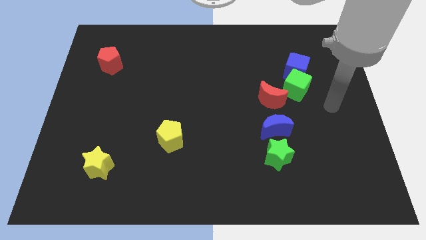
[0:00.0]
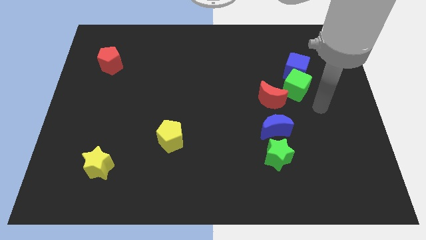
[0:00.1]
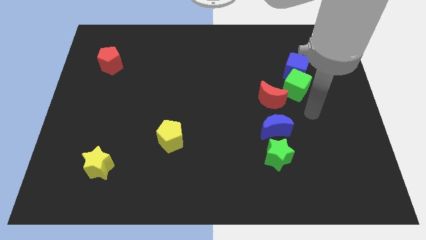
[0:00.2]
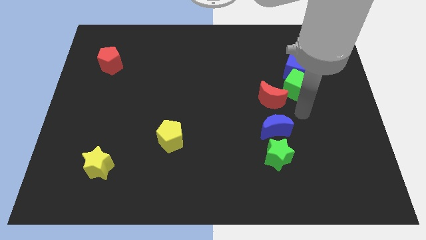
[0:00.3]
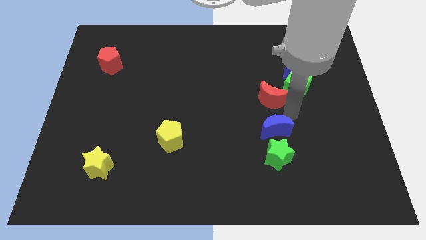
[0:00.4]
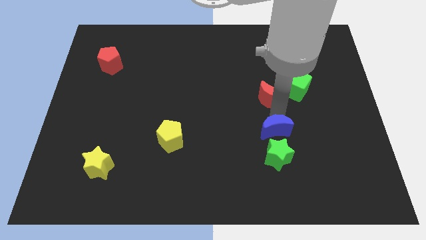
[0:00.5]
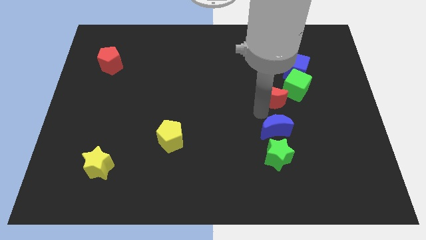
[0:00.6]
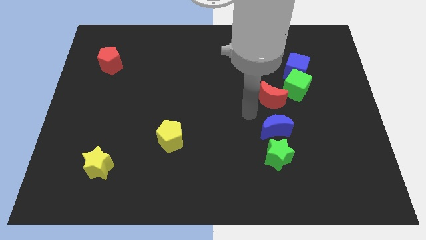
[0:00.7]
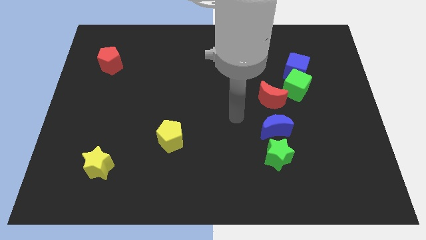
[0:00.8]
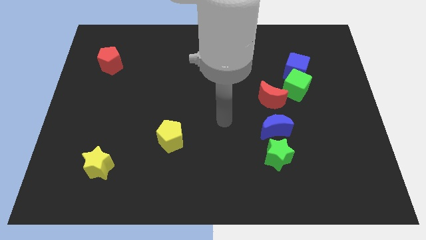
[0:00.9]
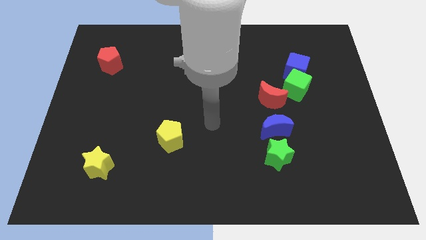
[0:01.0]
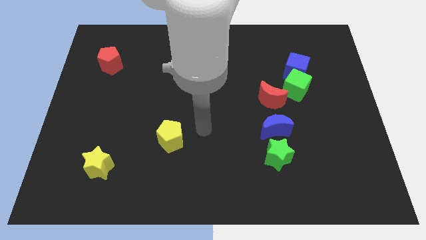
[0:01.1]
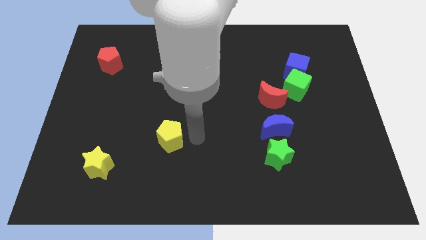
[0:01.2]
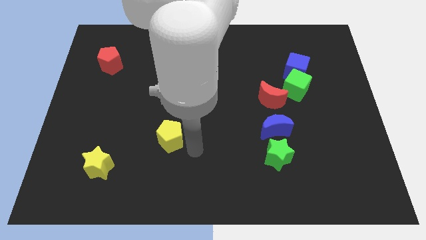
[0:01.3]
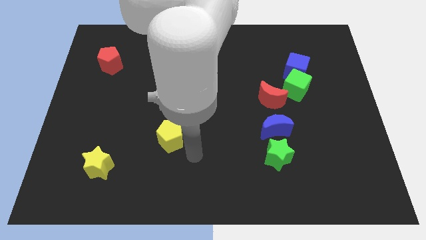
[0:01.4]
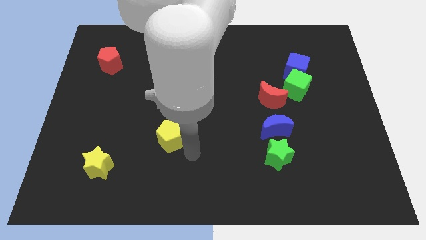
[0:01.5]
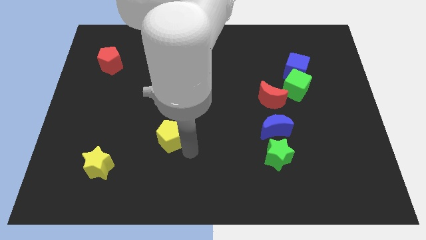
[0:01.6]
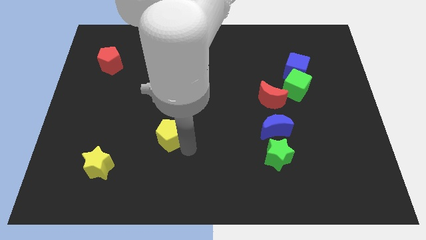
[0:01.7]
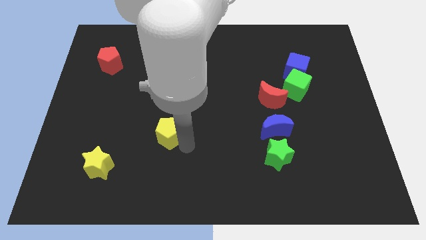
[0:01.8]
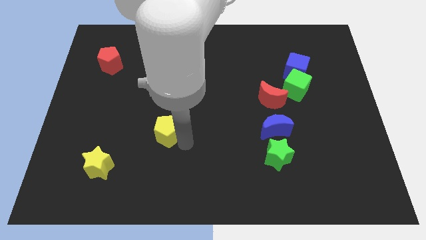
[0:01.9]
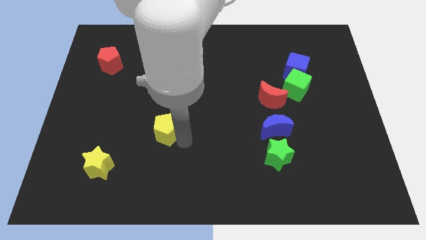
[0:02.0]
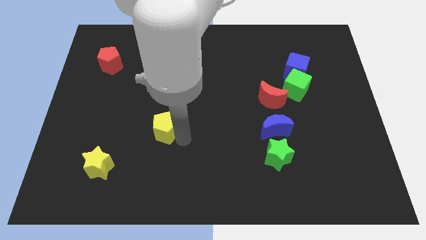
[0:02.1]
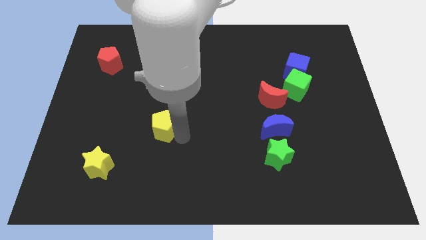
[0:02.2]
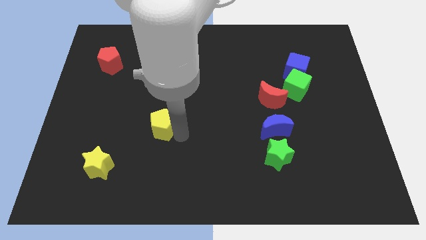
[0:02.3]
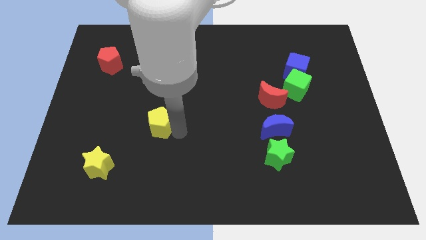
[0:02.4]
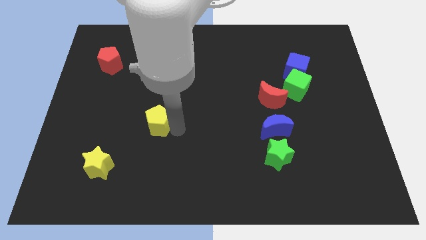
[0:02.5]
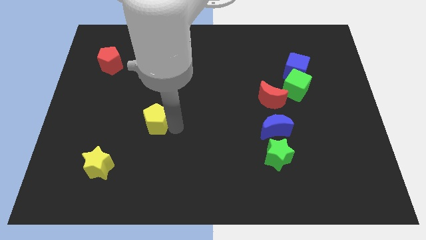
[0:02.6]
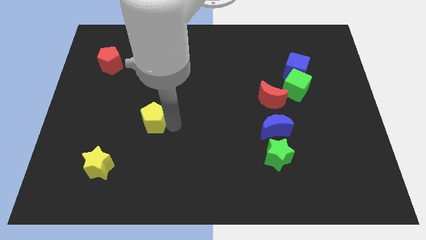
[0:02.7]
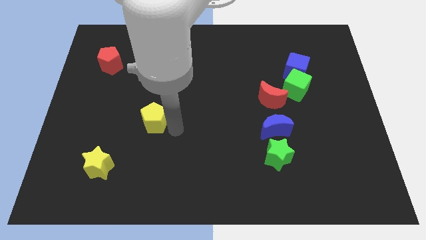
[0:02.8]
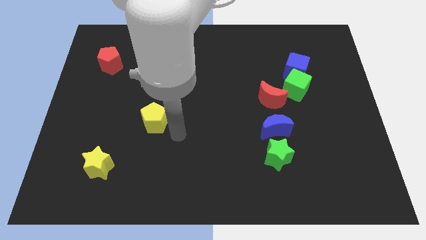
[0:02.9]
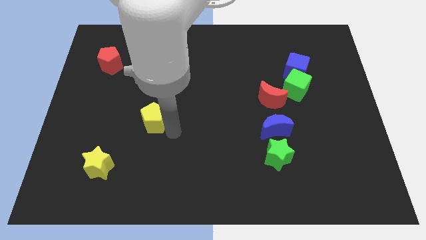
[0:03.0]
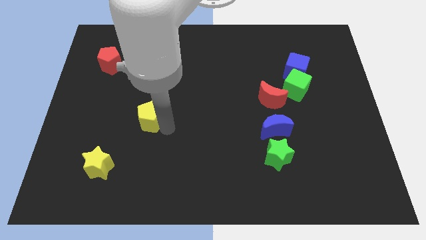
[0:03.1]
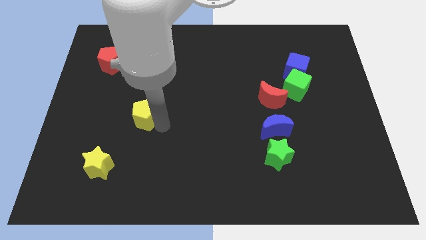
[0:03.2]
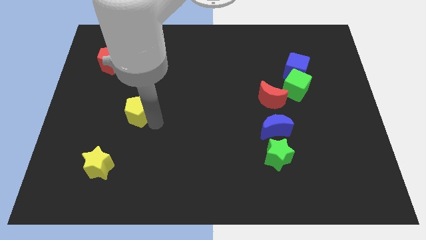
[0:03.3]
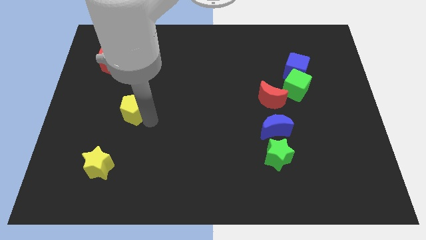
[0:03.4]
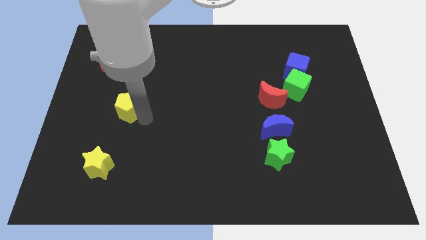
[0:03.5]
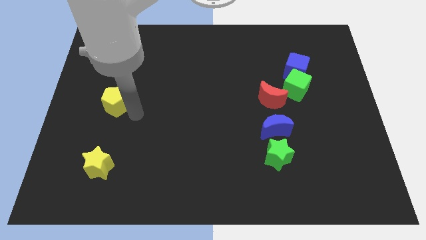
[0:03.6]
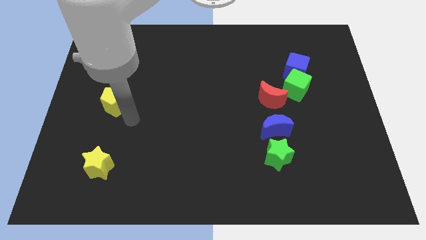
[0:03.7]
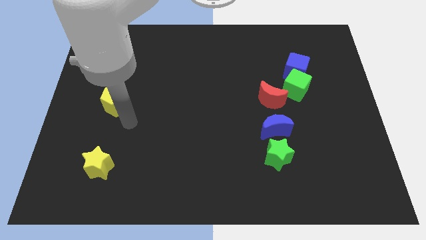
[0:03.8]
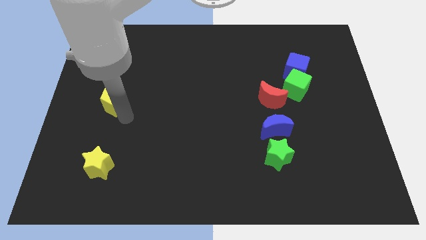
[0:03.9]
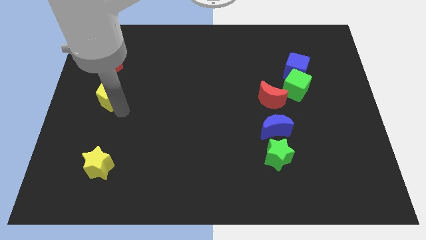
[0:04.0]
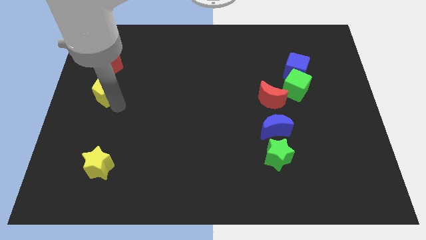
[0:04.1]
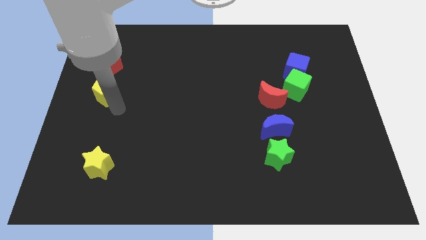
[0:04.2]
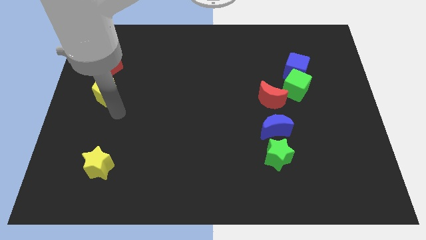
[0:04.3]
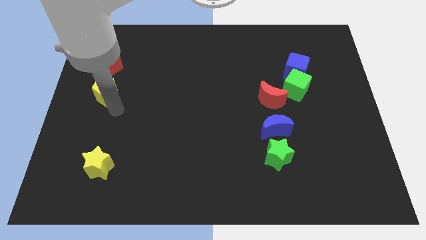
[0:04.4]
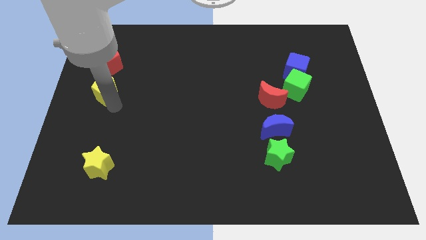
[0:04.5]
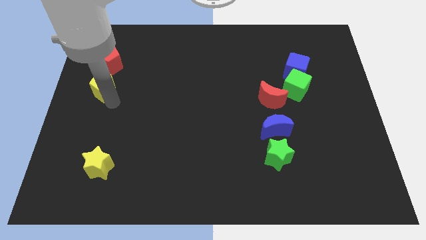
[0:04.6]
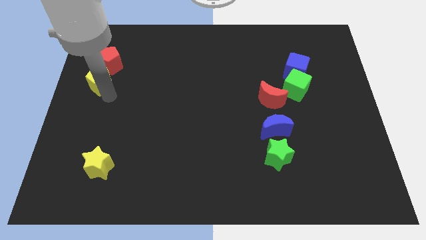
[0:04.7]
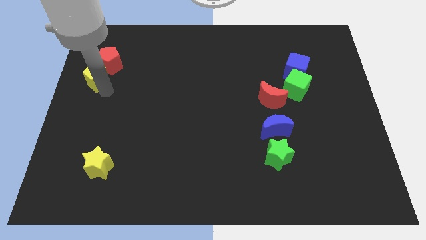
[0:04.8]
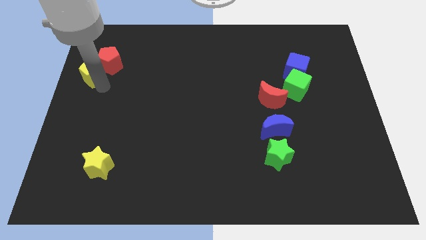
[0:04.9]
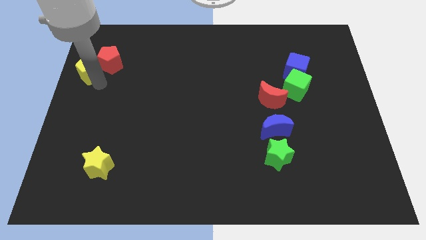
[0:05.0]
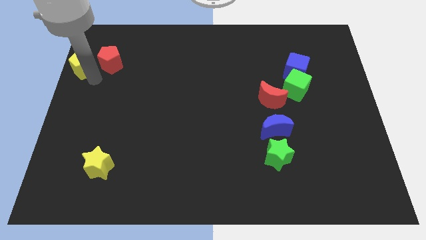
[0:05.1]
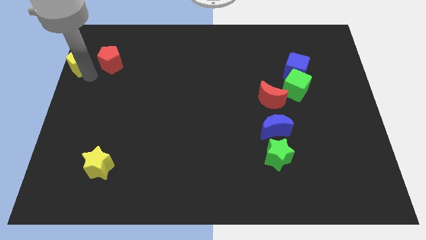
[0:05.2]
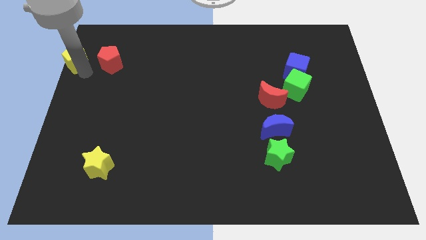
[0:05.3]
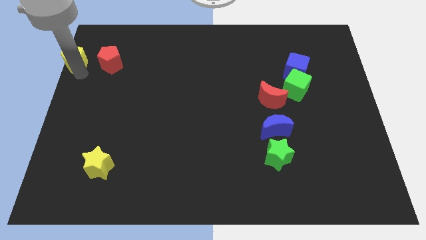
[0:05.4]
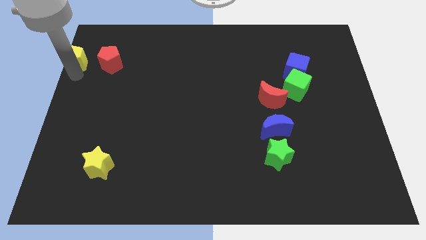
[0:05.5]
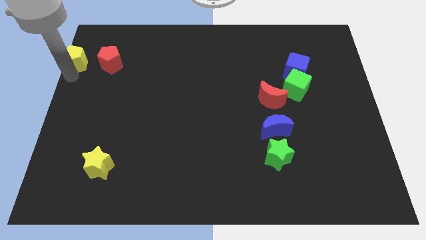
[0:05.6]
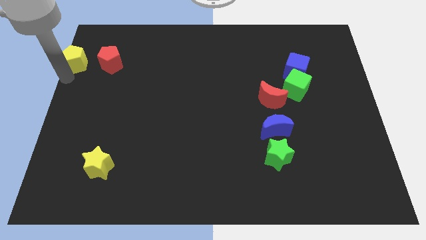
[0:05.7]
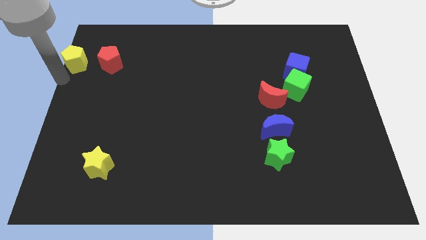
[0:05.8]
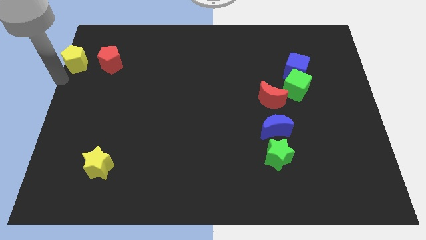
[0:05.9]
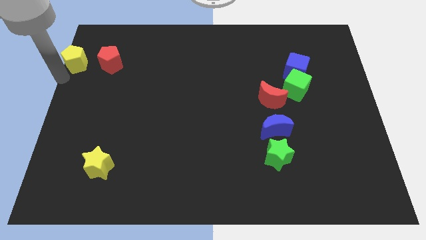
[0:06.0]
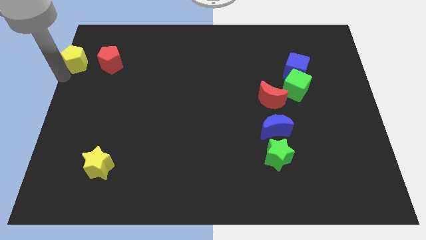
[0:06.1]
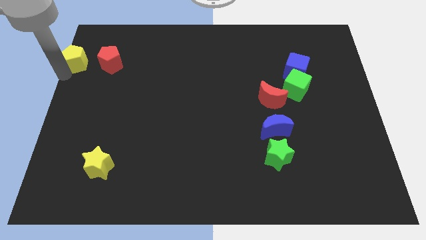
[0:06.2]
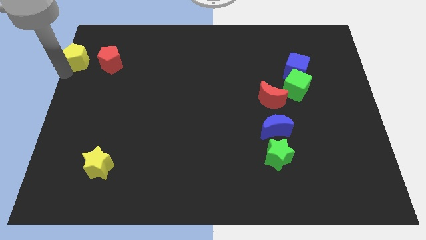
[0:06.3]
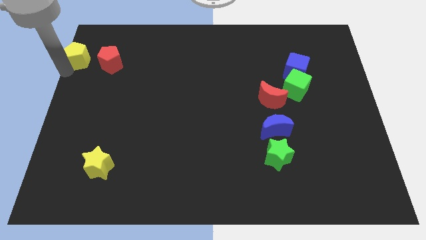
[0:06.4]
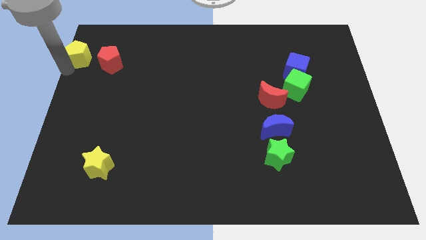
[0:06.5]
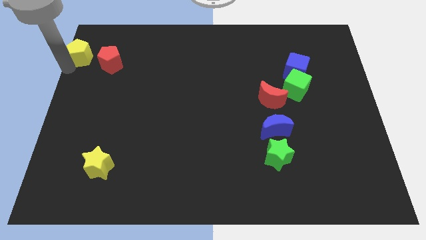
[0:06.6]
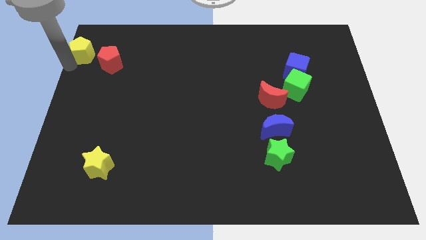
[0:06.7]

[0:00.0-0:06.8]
move the yellow pentagon to the upper left corner
